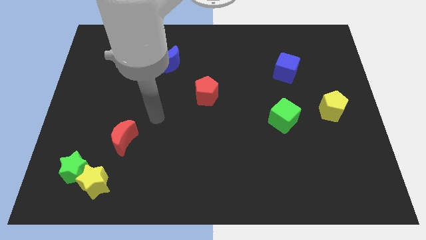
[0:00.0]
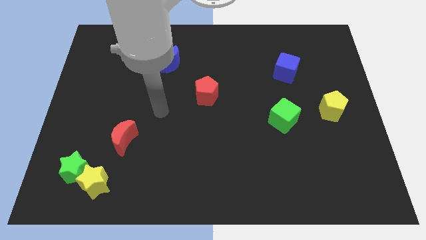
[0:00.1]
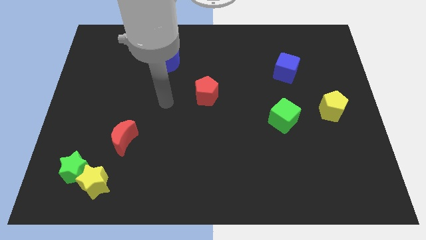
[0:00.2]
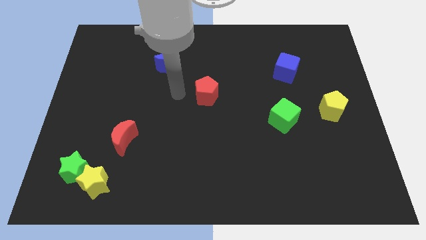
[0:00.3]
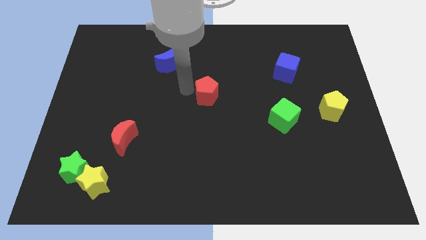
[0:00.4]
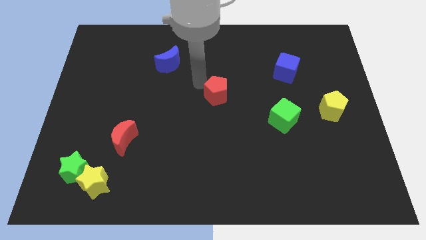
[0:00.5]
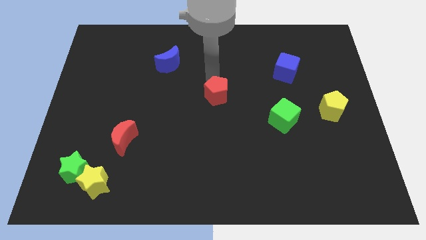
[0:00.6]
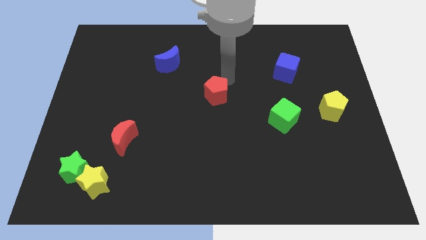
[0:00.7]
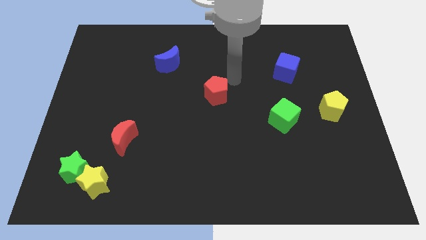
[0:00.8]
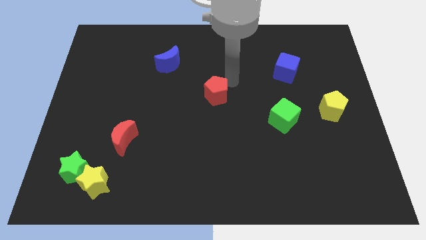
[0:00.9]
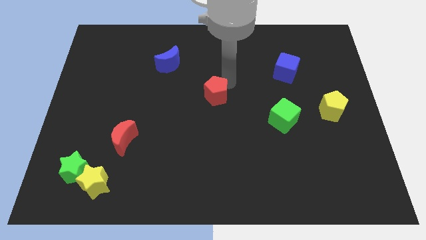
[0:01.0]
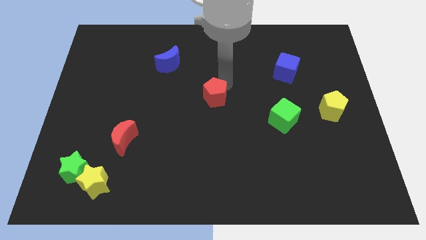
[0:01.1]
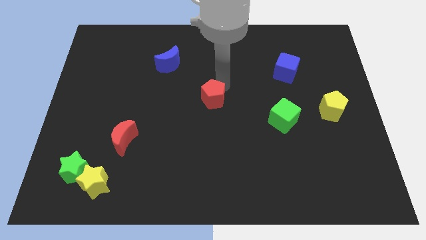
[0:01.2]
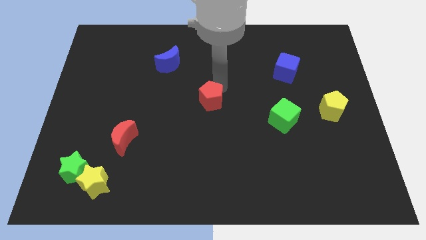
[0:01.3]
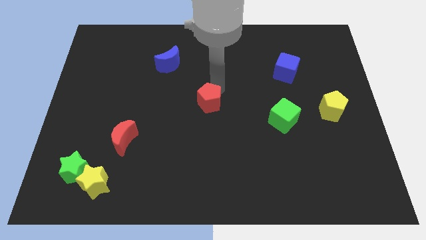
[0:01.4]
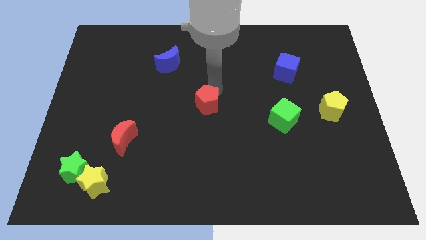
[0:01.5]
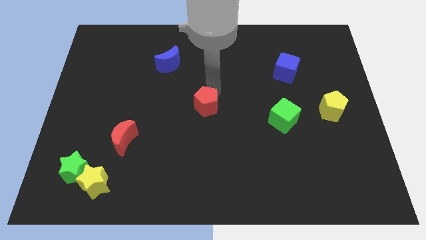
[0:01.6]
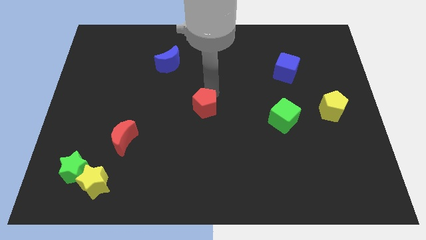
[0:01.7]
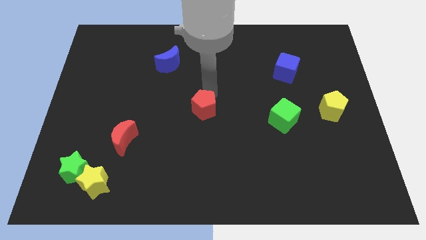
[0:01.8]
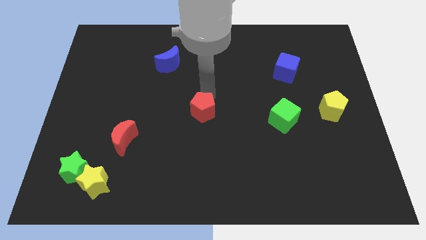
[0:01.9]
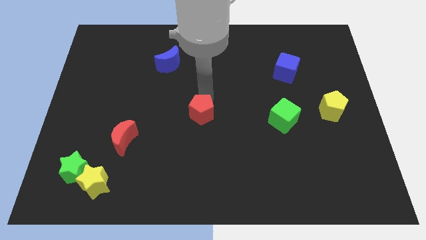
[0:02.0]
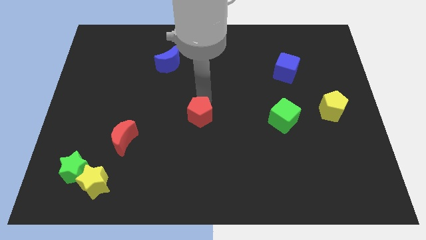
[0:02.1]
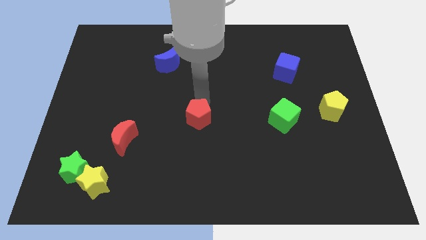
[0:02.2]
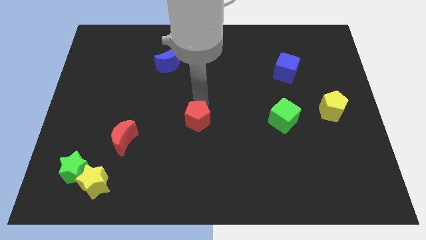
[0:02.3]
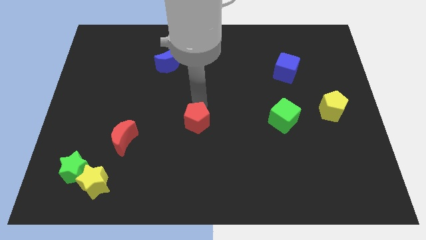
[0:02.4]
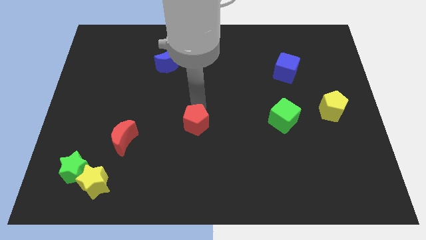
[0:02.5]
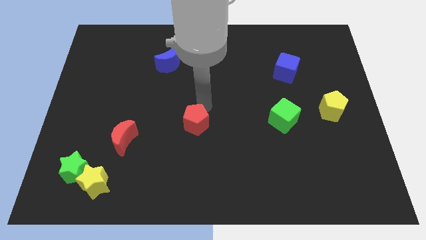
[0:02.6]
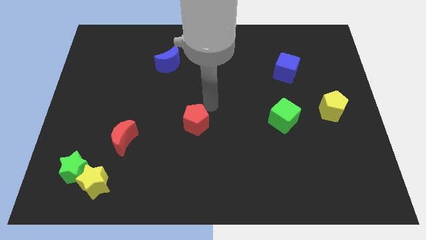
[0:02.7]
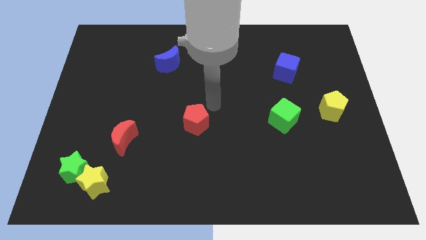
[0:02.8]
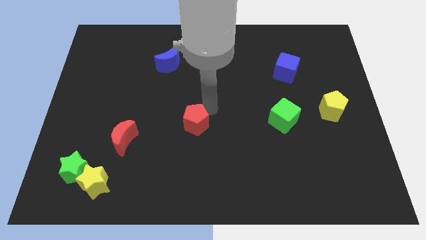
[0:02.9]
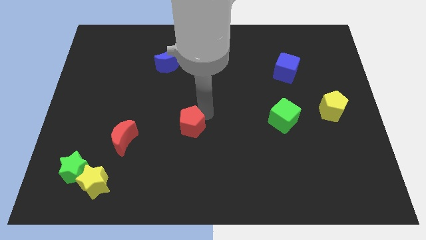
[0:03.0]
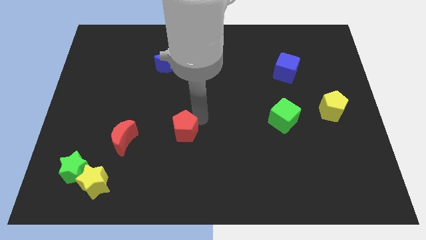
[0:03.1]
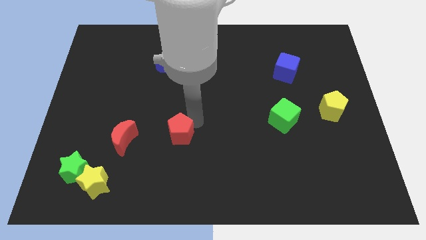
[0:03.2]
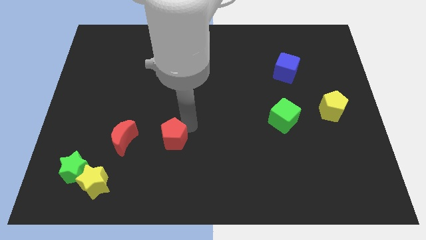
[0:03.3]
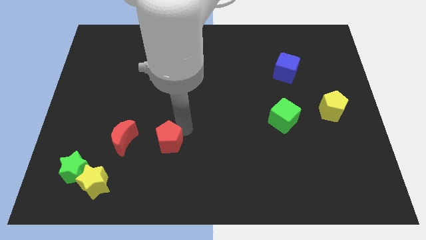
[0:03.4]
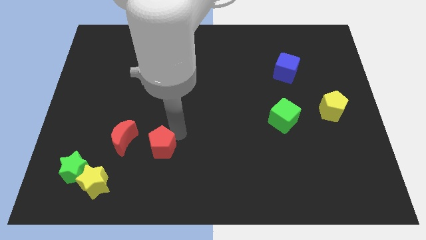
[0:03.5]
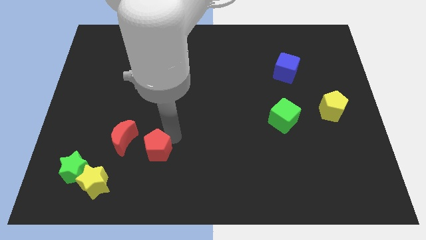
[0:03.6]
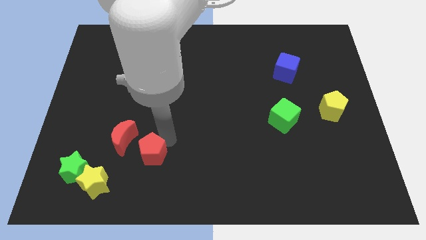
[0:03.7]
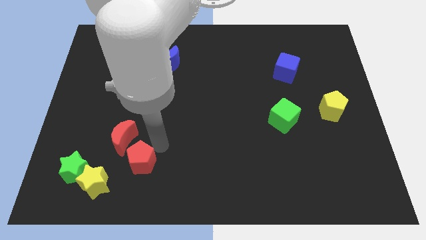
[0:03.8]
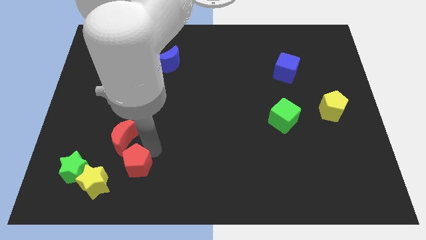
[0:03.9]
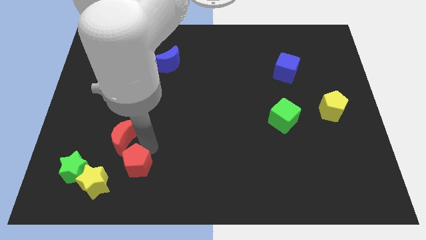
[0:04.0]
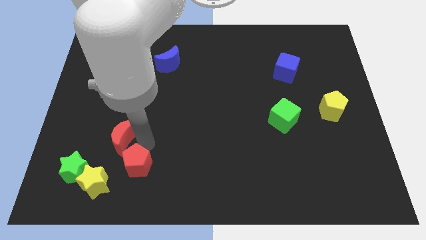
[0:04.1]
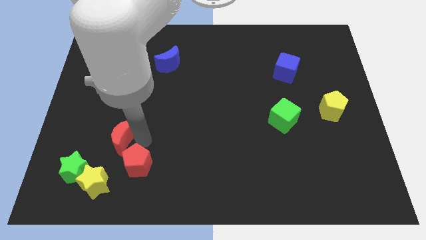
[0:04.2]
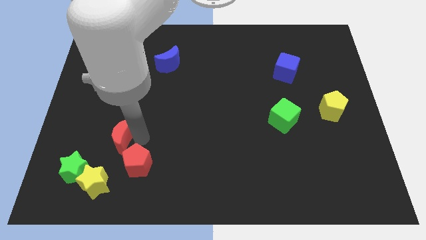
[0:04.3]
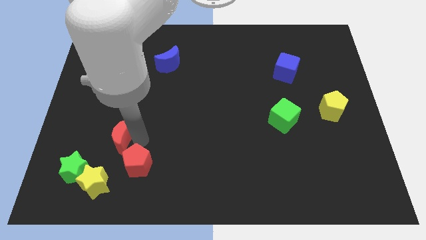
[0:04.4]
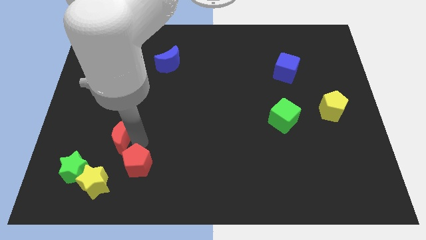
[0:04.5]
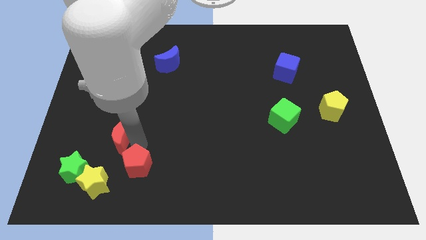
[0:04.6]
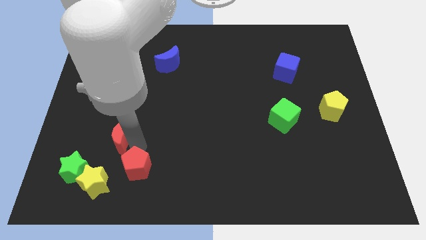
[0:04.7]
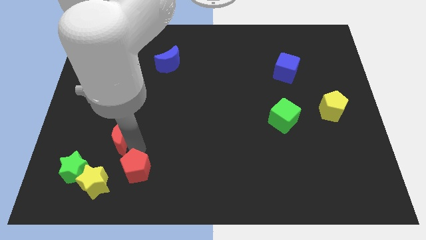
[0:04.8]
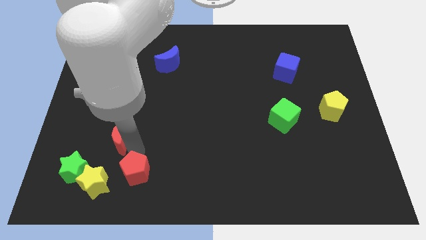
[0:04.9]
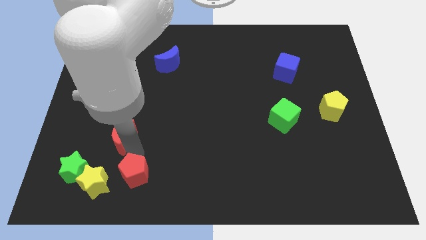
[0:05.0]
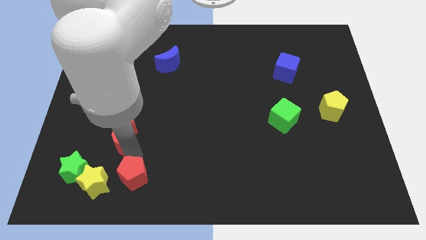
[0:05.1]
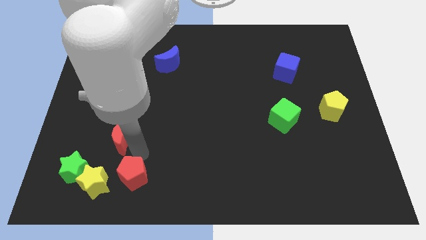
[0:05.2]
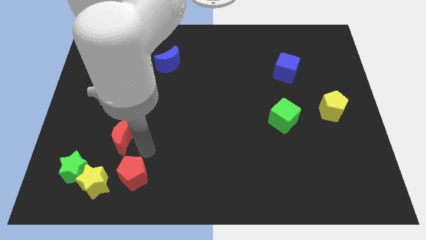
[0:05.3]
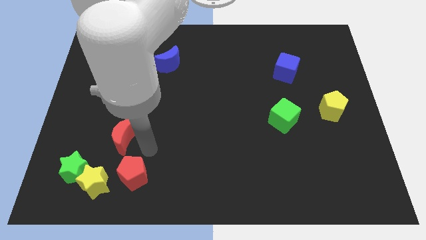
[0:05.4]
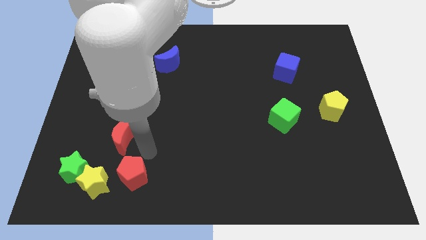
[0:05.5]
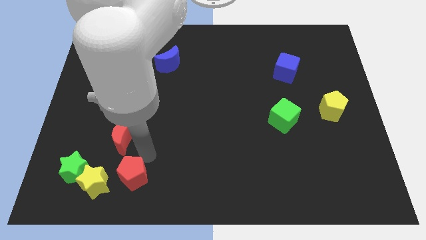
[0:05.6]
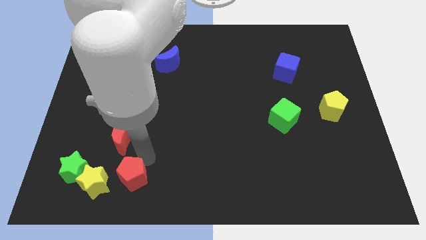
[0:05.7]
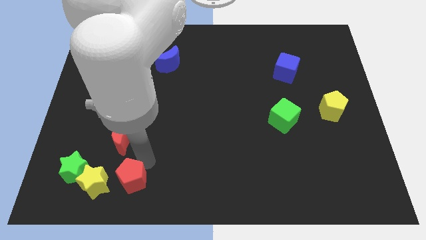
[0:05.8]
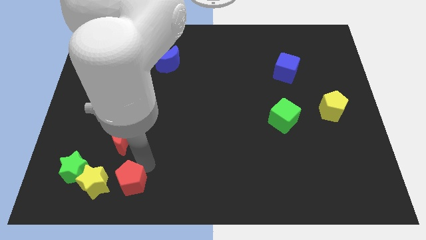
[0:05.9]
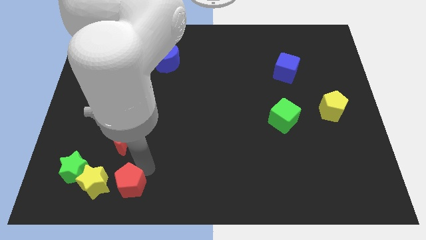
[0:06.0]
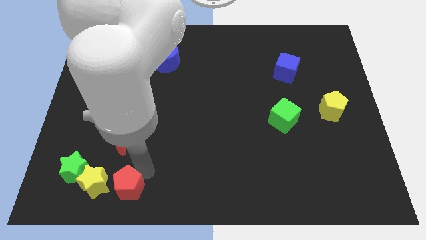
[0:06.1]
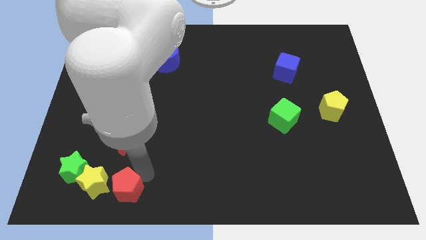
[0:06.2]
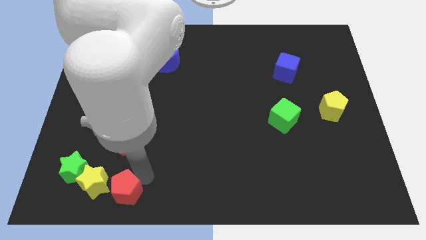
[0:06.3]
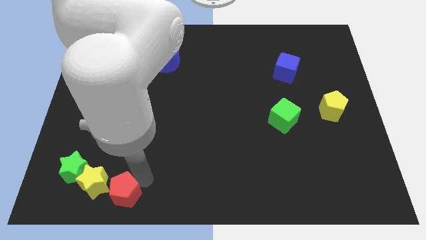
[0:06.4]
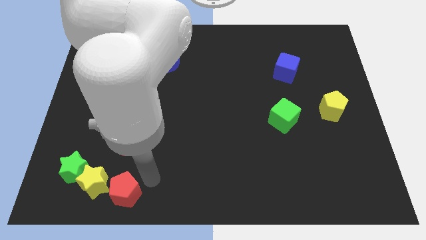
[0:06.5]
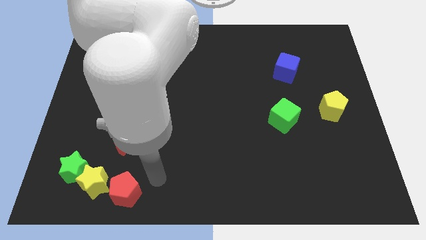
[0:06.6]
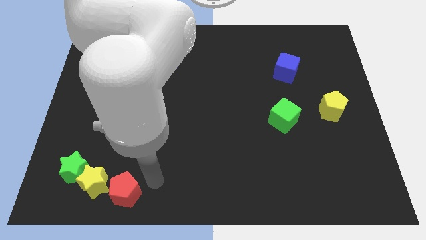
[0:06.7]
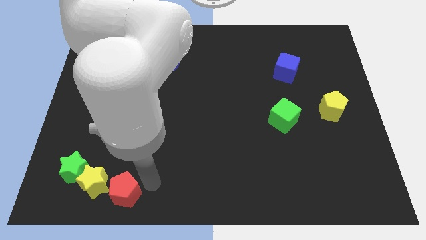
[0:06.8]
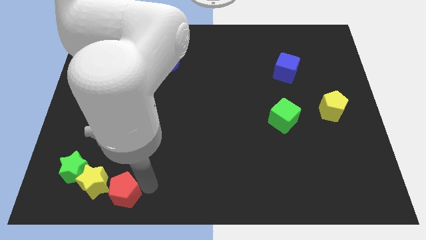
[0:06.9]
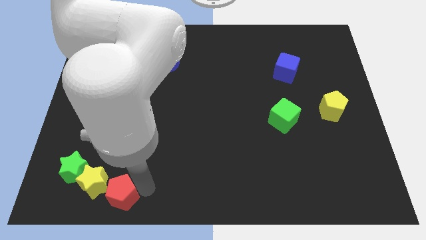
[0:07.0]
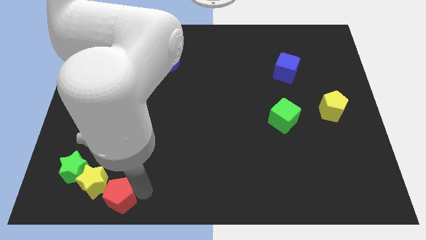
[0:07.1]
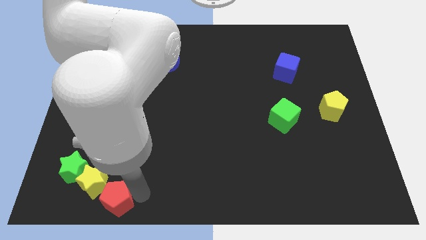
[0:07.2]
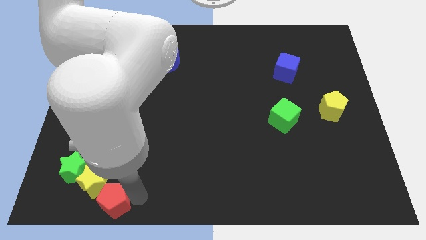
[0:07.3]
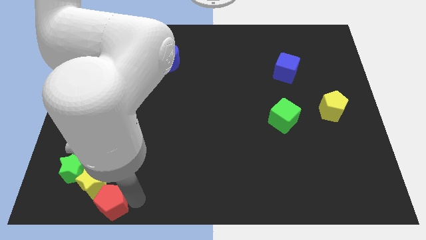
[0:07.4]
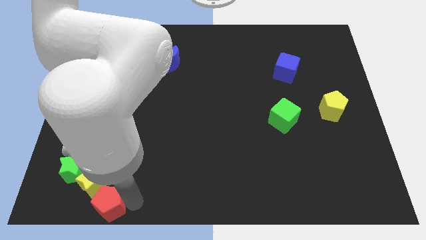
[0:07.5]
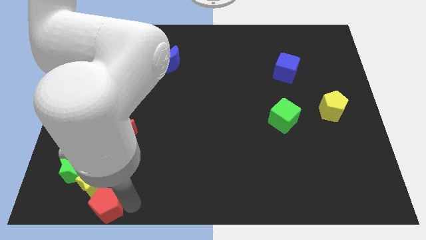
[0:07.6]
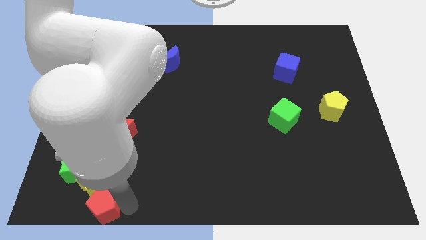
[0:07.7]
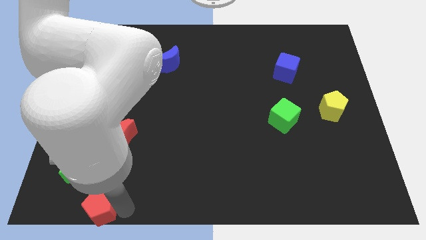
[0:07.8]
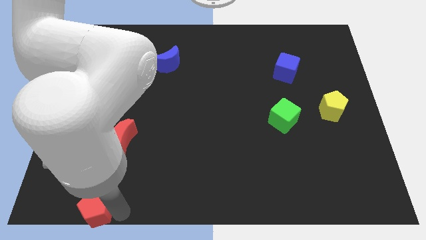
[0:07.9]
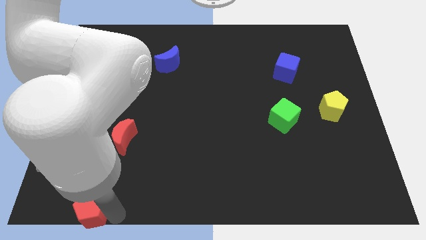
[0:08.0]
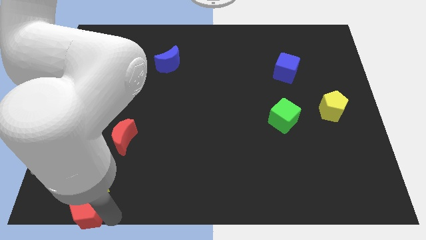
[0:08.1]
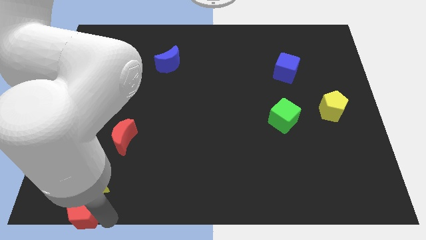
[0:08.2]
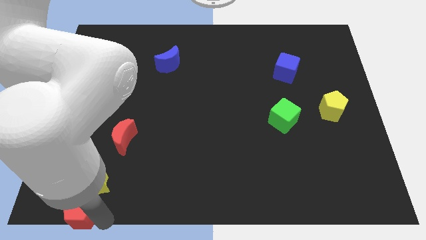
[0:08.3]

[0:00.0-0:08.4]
move the red pentagon to the bottom left corner
